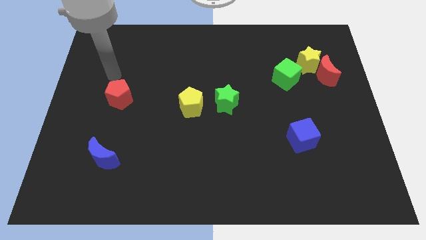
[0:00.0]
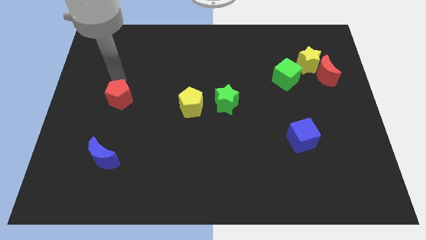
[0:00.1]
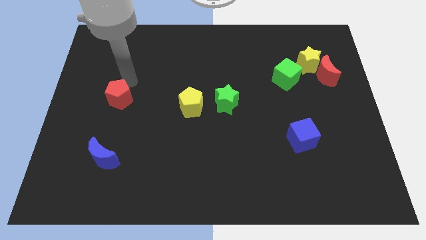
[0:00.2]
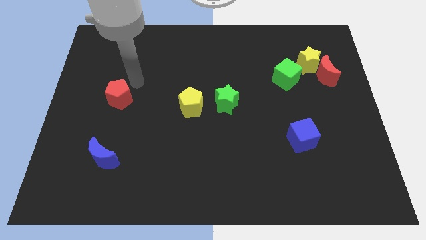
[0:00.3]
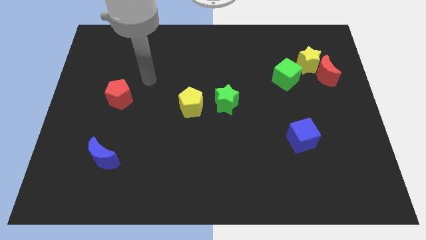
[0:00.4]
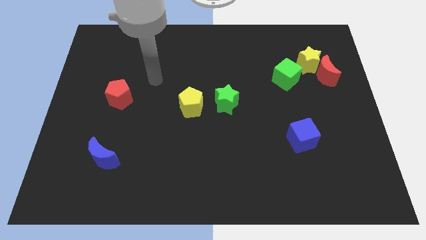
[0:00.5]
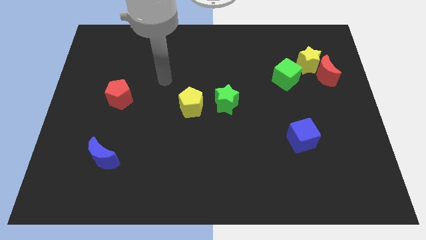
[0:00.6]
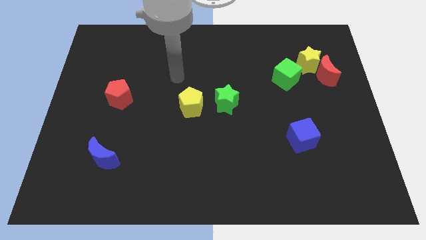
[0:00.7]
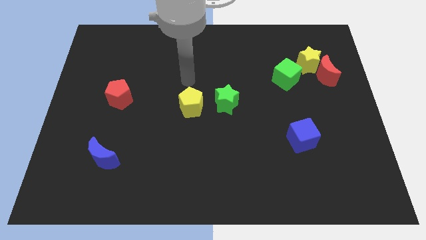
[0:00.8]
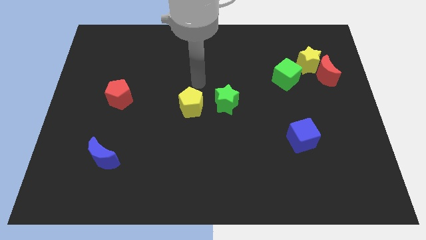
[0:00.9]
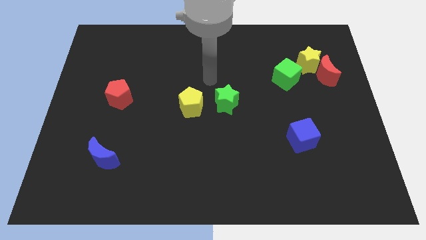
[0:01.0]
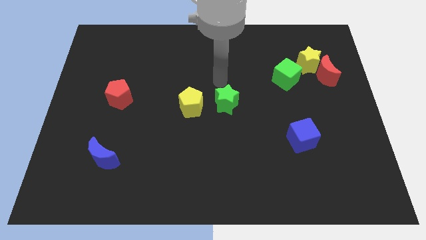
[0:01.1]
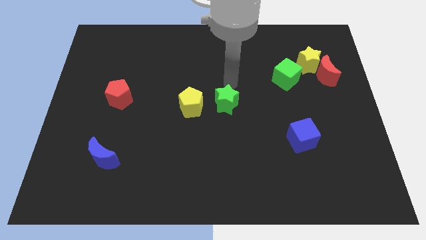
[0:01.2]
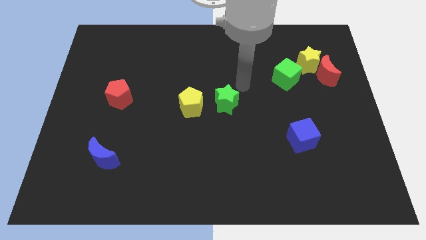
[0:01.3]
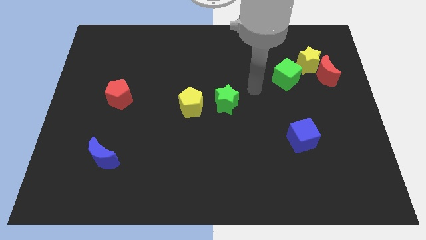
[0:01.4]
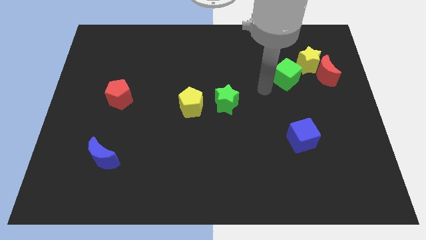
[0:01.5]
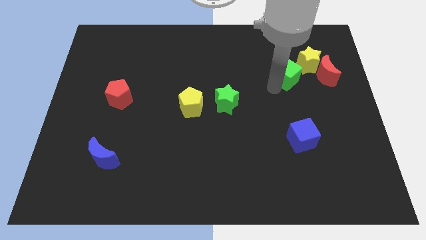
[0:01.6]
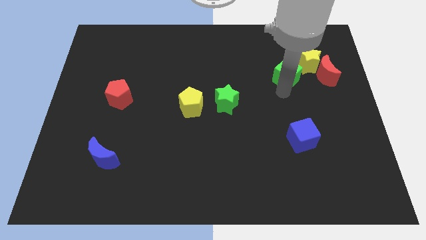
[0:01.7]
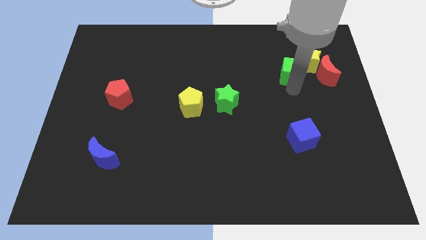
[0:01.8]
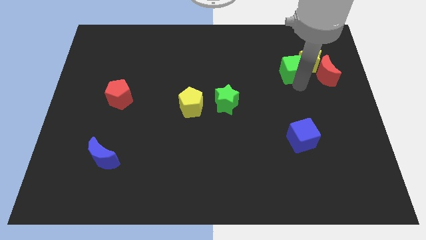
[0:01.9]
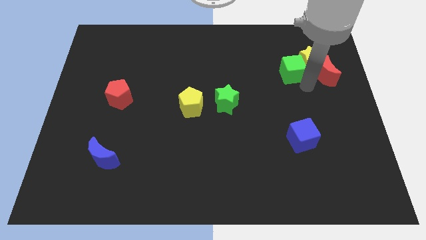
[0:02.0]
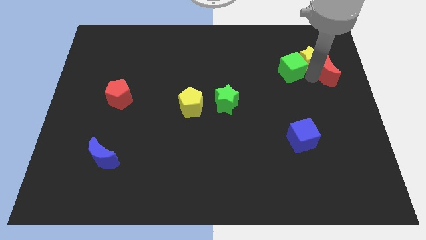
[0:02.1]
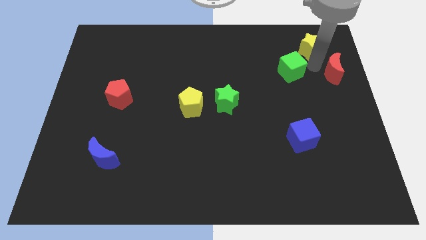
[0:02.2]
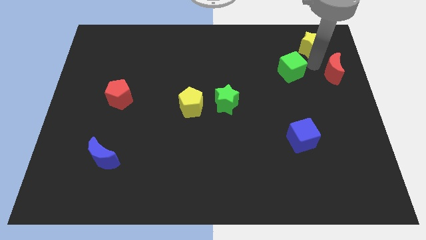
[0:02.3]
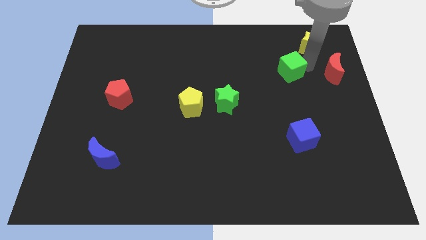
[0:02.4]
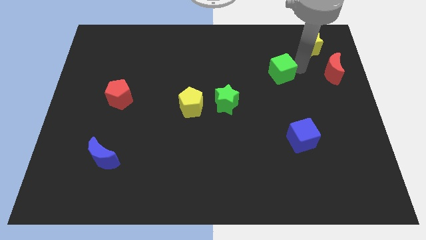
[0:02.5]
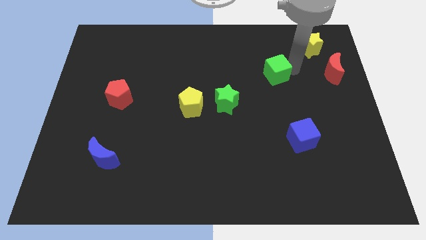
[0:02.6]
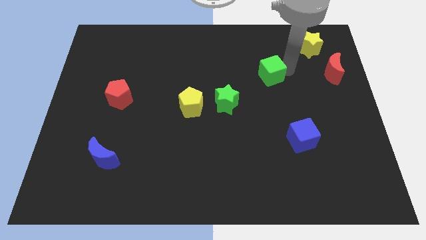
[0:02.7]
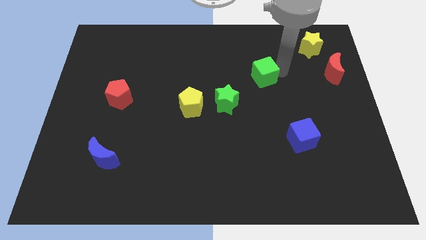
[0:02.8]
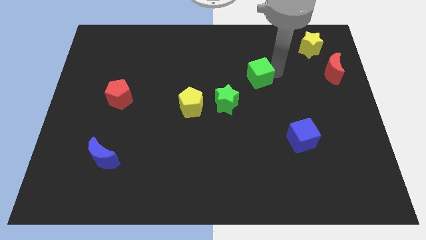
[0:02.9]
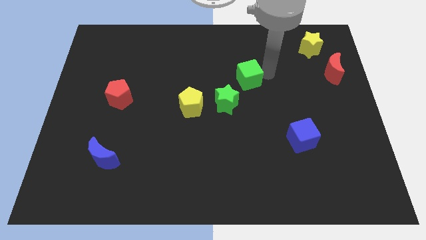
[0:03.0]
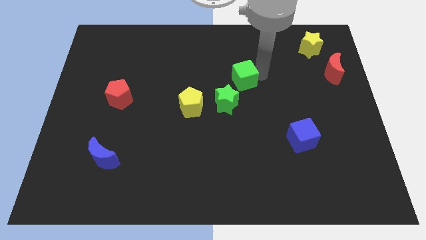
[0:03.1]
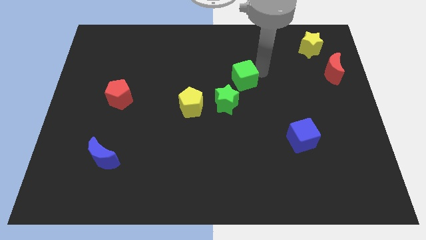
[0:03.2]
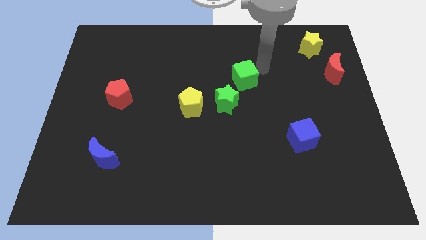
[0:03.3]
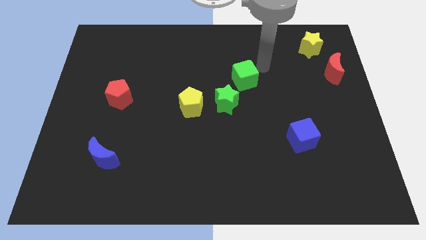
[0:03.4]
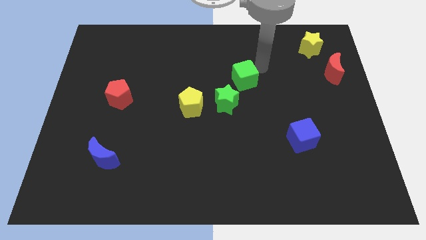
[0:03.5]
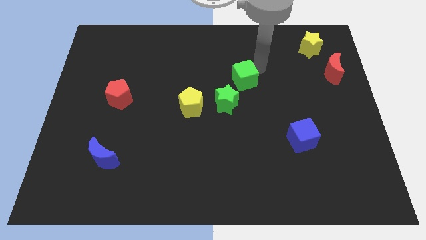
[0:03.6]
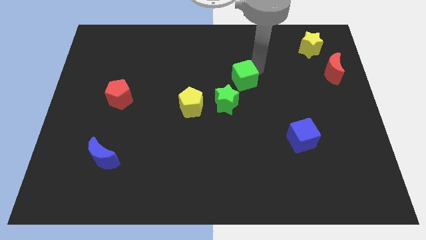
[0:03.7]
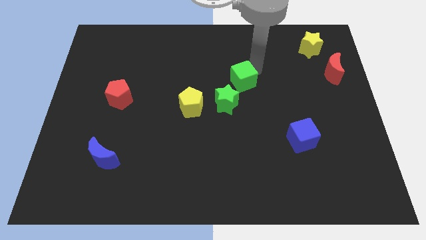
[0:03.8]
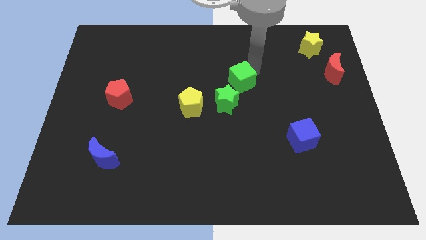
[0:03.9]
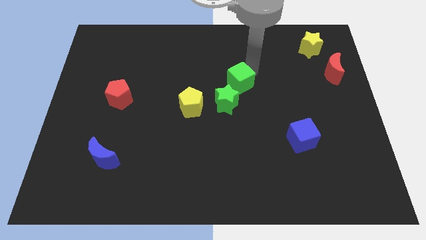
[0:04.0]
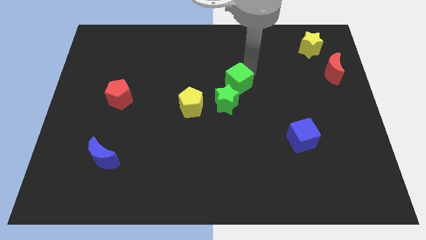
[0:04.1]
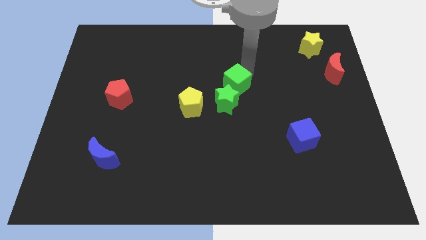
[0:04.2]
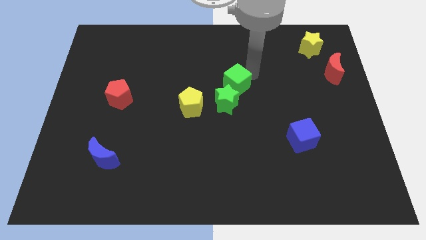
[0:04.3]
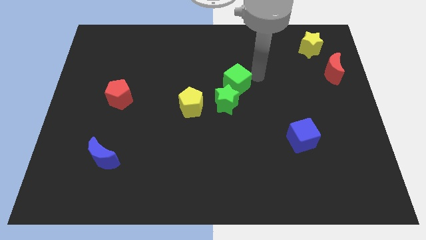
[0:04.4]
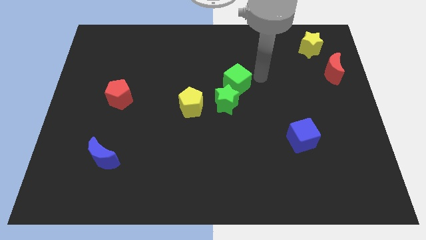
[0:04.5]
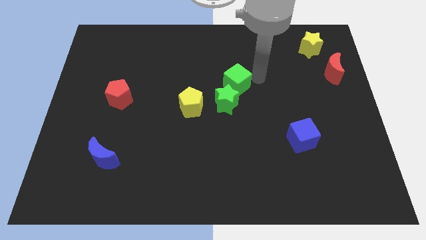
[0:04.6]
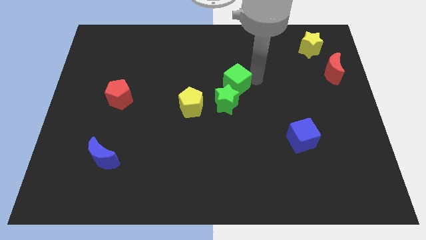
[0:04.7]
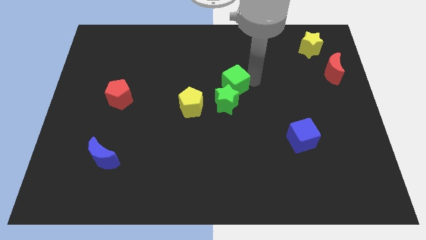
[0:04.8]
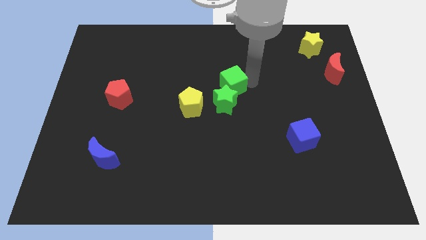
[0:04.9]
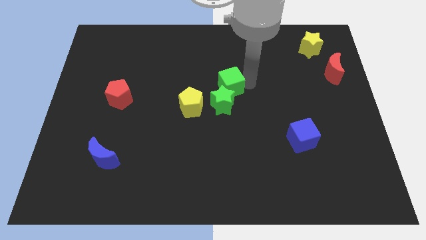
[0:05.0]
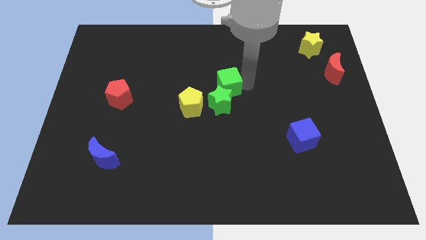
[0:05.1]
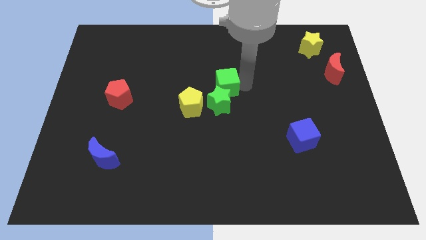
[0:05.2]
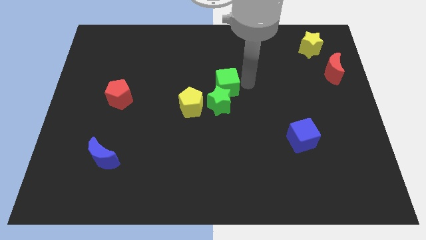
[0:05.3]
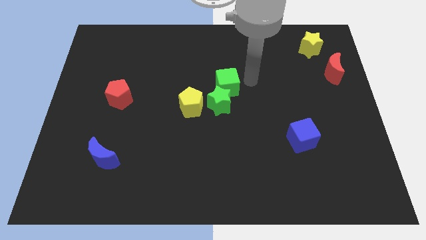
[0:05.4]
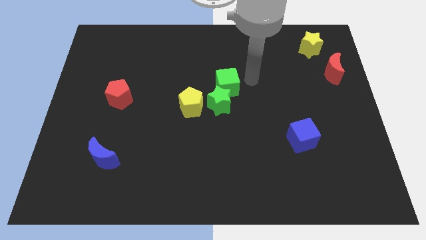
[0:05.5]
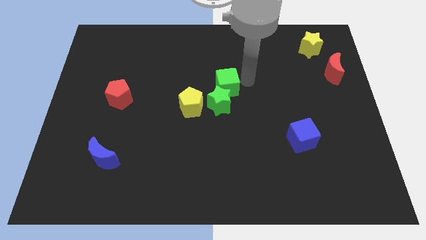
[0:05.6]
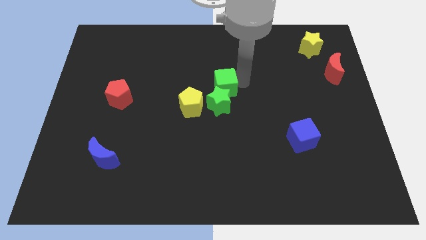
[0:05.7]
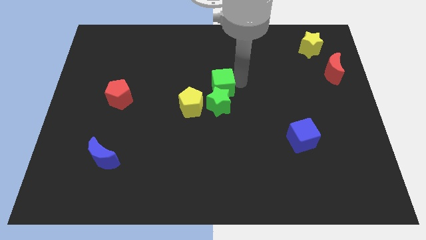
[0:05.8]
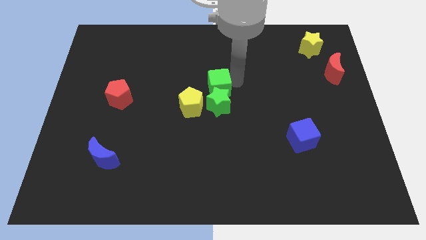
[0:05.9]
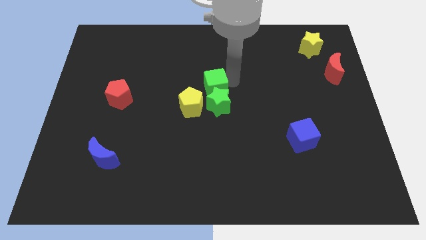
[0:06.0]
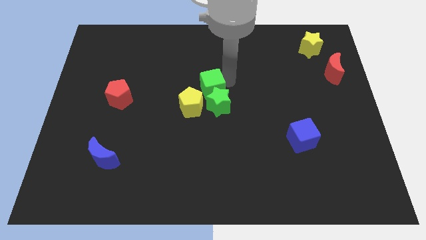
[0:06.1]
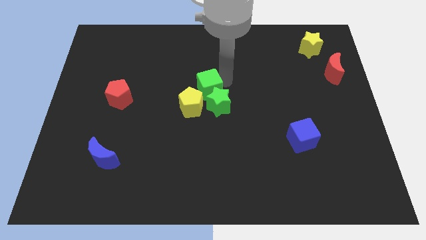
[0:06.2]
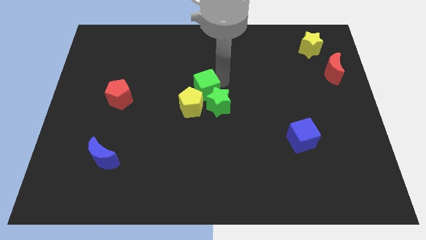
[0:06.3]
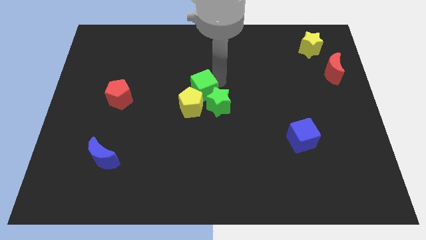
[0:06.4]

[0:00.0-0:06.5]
slide the green cube towards the yellow pentagon

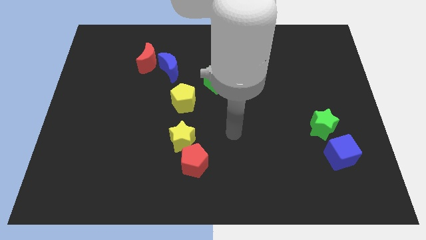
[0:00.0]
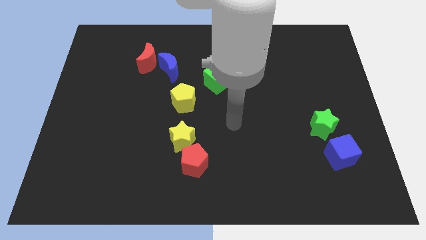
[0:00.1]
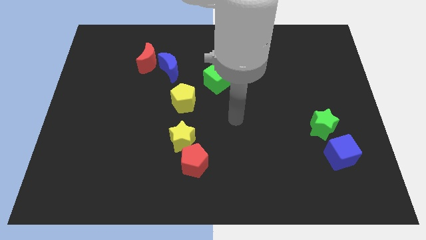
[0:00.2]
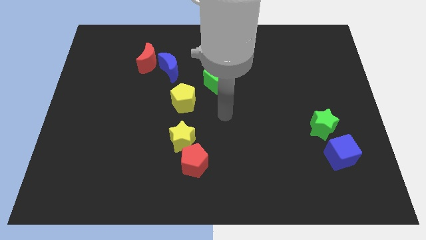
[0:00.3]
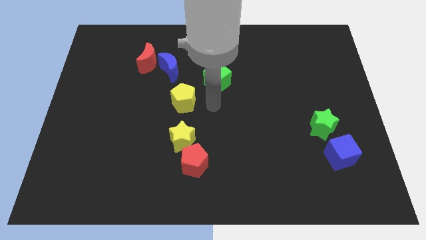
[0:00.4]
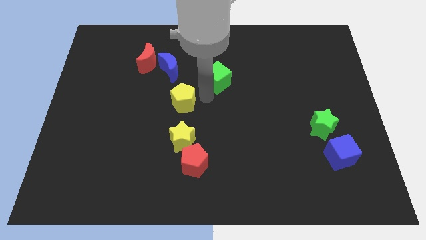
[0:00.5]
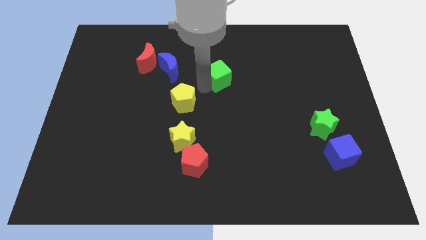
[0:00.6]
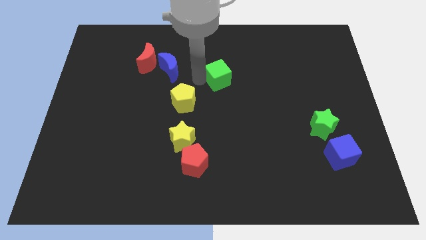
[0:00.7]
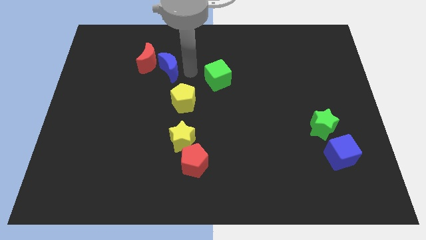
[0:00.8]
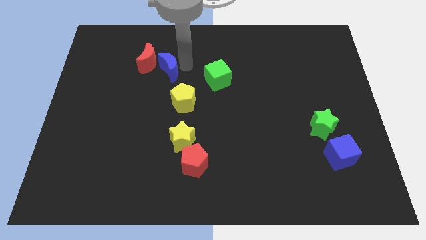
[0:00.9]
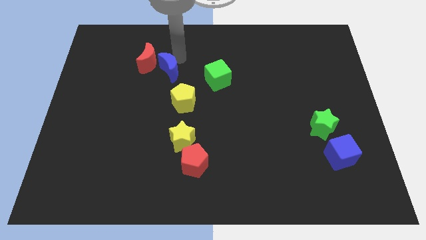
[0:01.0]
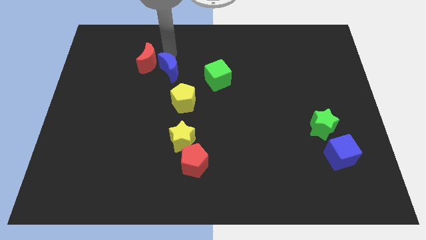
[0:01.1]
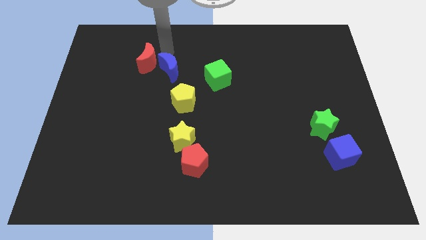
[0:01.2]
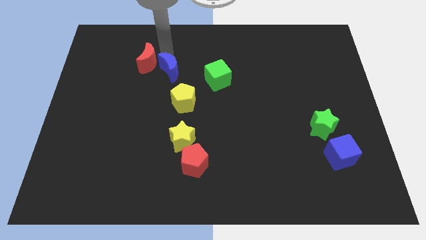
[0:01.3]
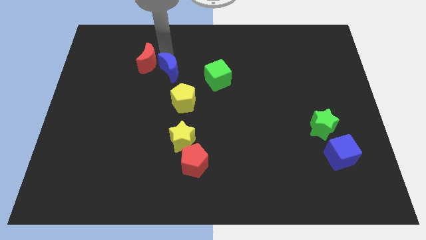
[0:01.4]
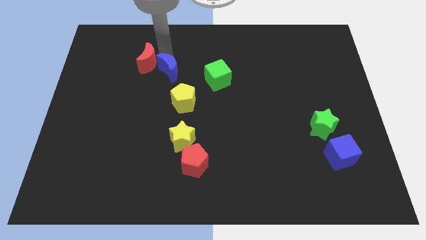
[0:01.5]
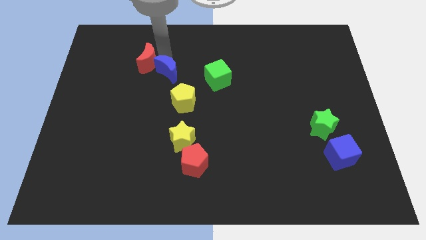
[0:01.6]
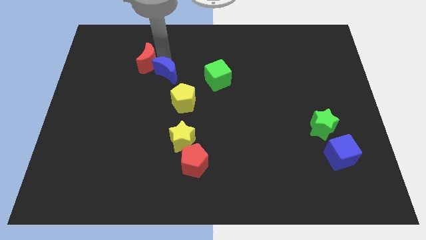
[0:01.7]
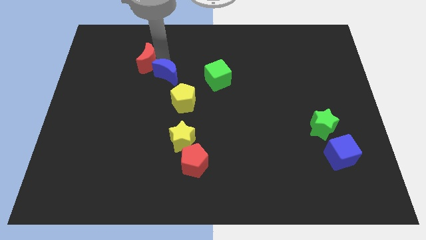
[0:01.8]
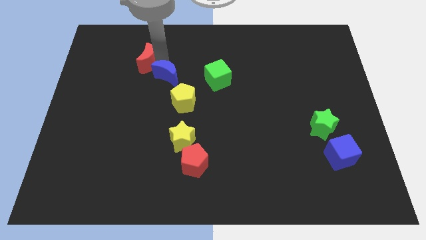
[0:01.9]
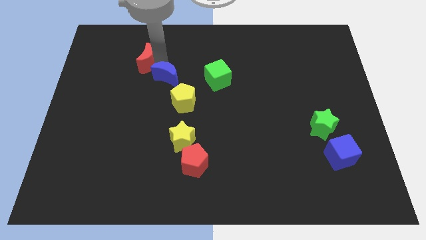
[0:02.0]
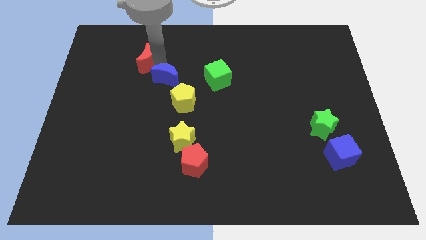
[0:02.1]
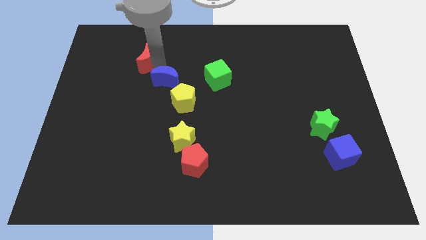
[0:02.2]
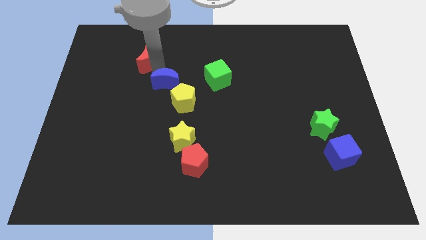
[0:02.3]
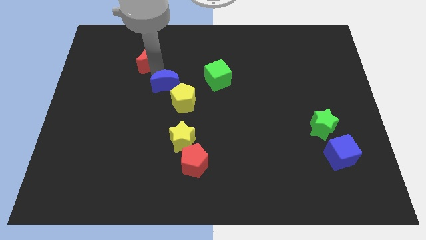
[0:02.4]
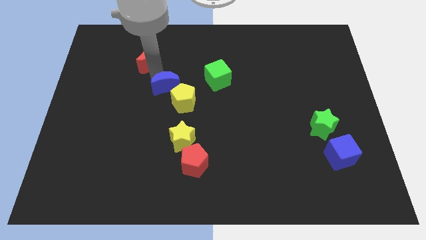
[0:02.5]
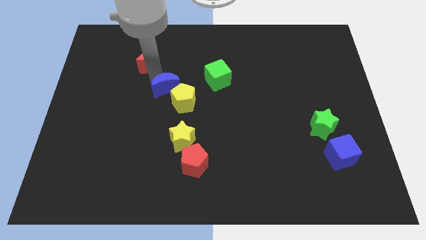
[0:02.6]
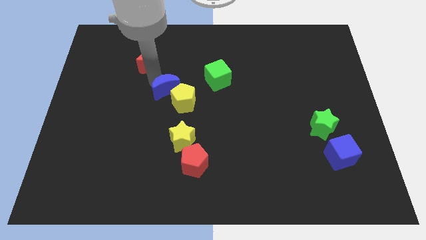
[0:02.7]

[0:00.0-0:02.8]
put the blue moon to the yellow pentagon
